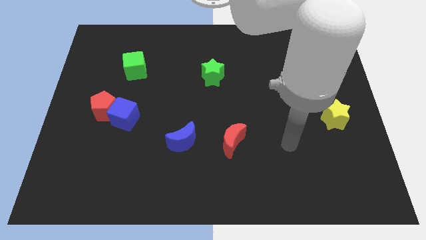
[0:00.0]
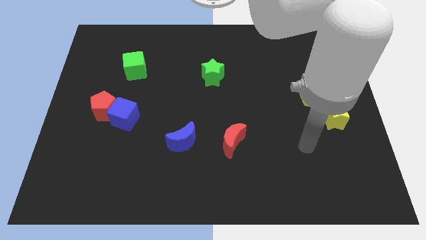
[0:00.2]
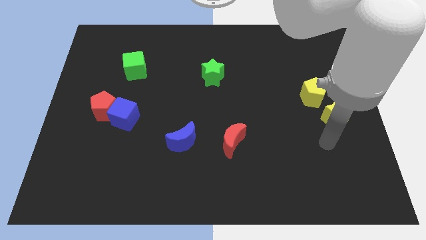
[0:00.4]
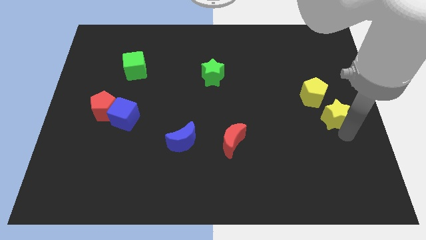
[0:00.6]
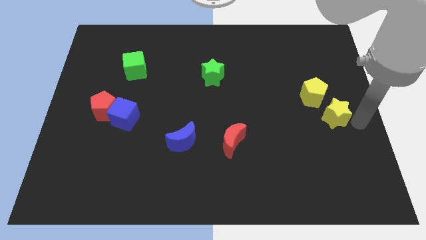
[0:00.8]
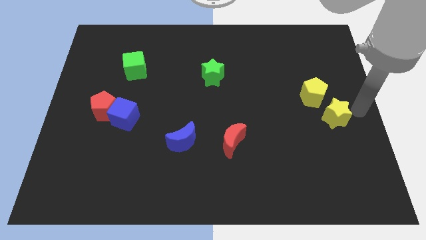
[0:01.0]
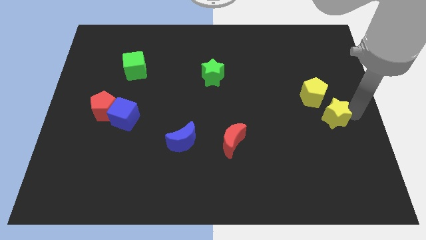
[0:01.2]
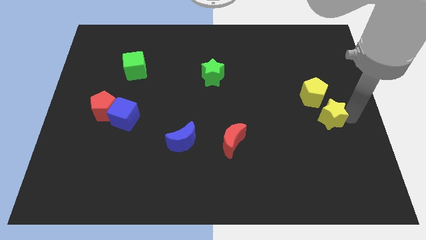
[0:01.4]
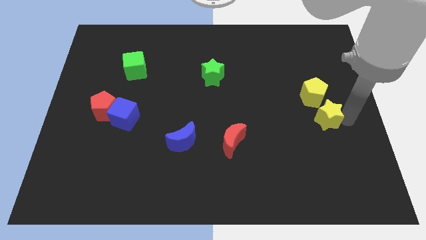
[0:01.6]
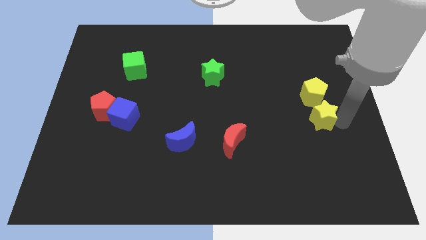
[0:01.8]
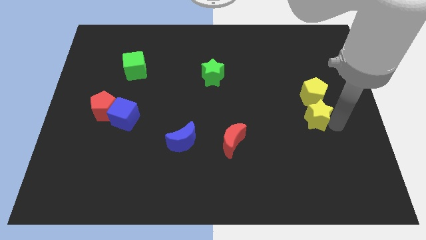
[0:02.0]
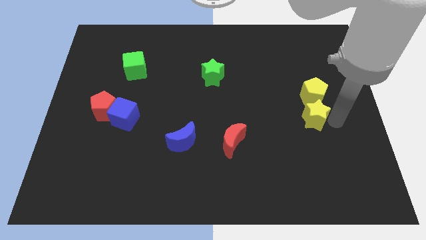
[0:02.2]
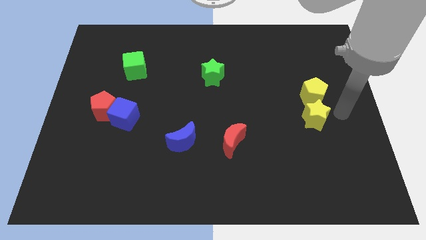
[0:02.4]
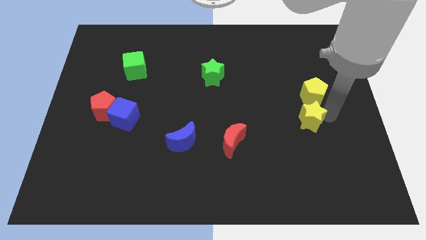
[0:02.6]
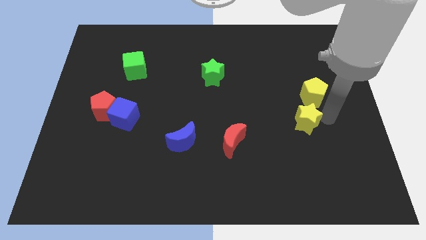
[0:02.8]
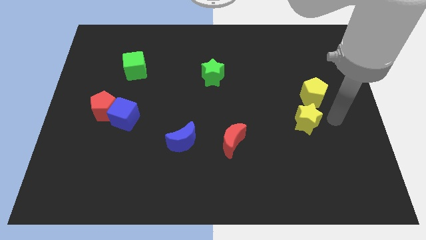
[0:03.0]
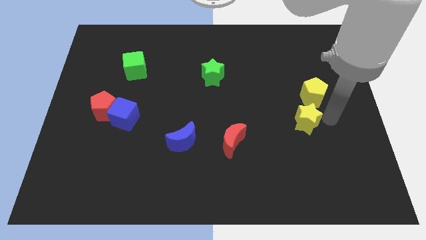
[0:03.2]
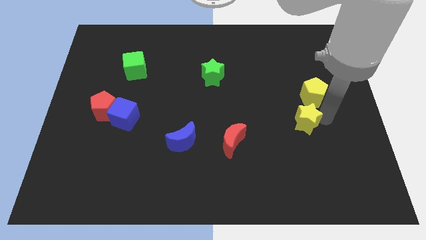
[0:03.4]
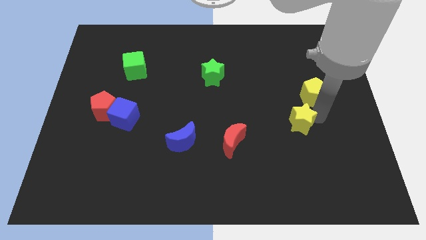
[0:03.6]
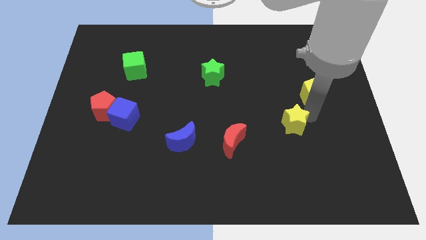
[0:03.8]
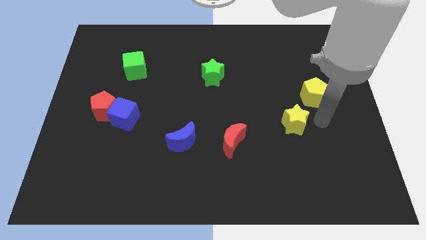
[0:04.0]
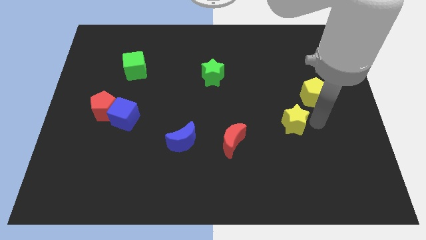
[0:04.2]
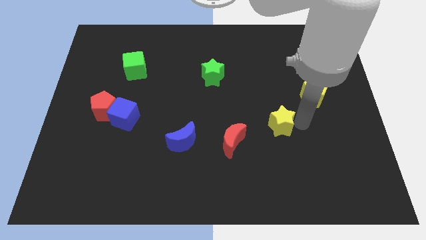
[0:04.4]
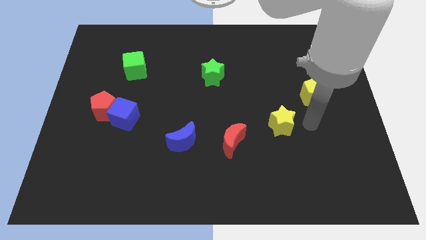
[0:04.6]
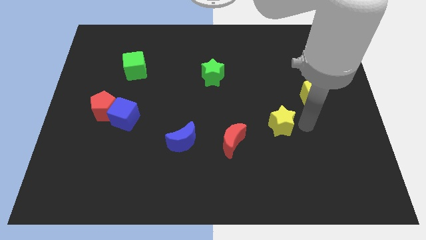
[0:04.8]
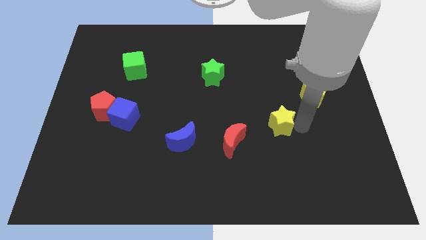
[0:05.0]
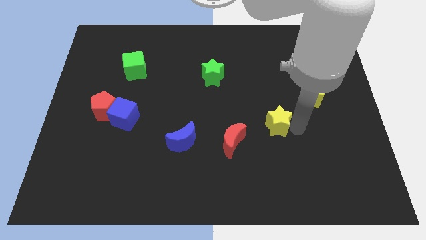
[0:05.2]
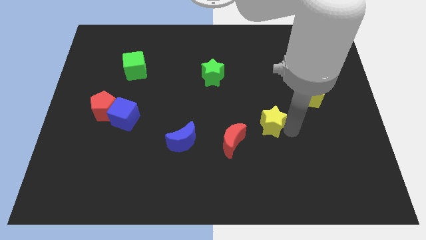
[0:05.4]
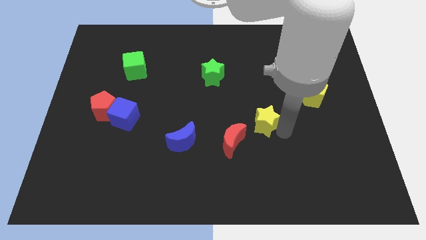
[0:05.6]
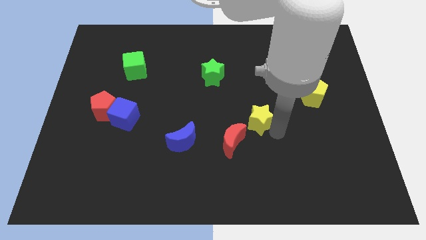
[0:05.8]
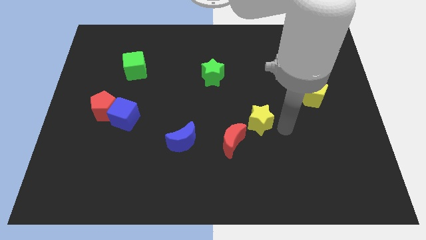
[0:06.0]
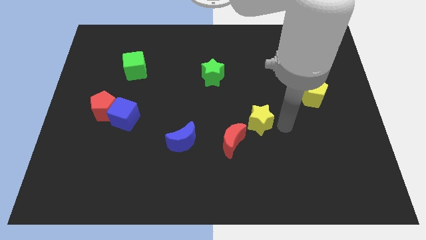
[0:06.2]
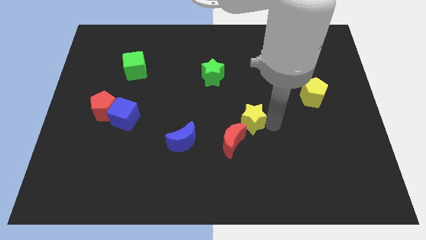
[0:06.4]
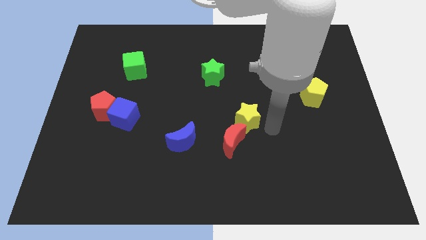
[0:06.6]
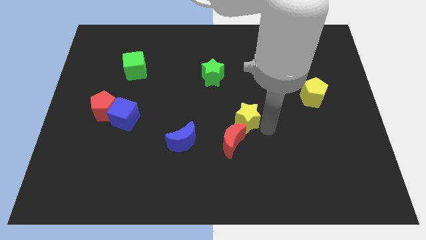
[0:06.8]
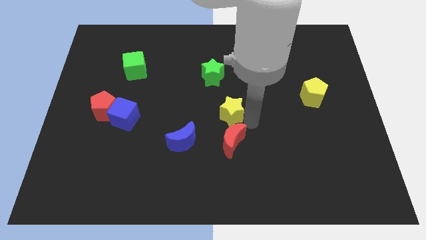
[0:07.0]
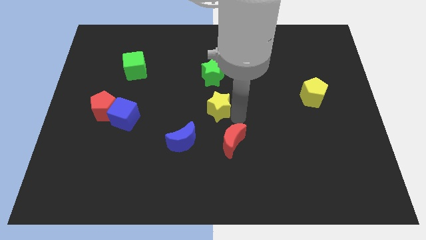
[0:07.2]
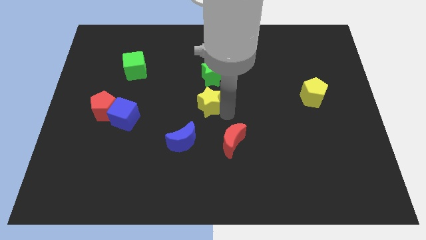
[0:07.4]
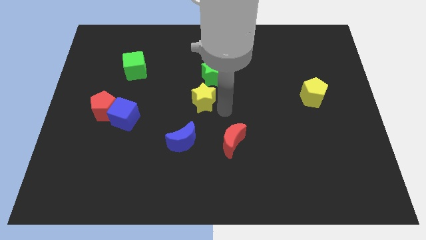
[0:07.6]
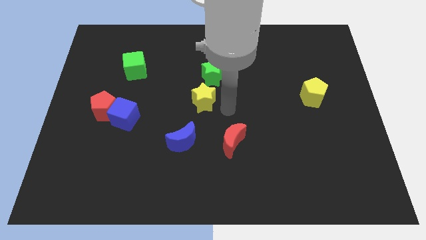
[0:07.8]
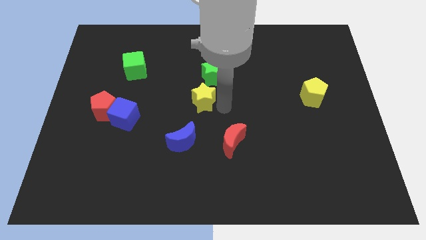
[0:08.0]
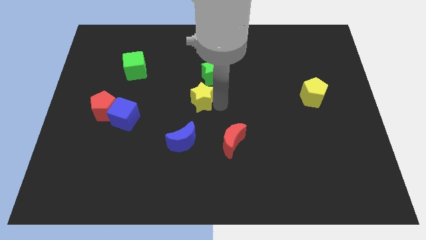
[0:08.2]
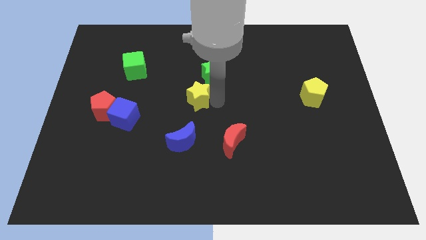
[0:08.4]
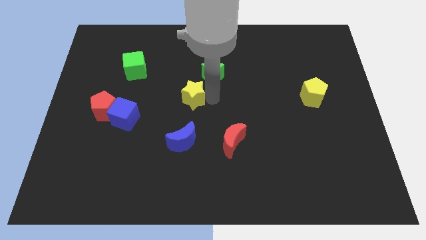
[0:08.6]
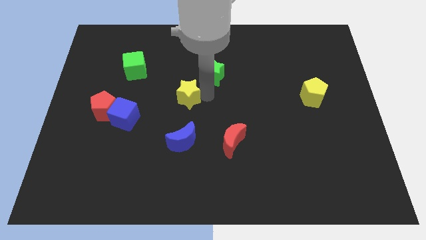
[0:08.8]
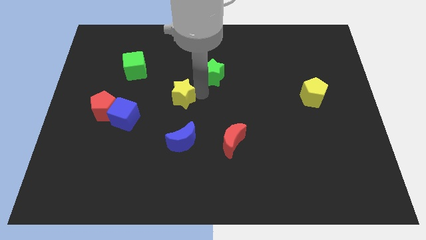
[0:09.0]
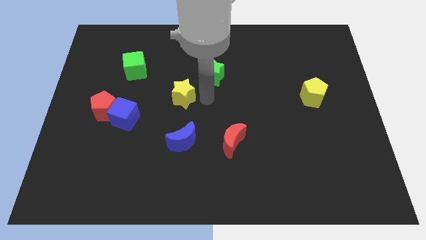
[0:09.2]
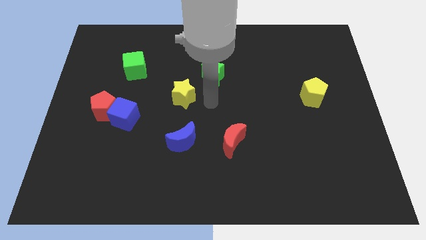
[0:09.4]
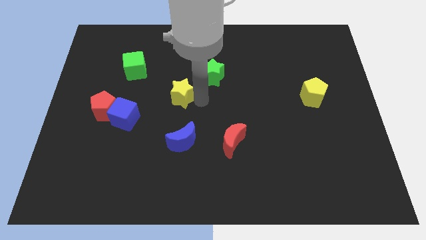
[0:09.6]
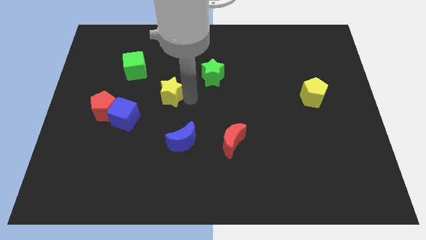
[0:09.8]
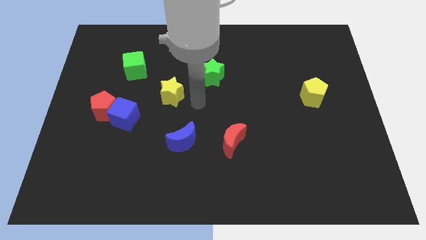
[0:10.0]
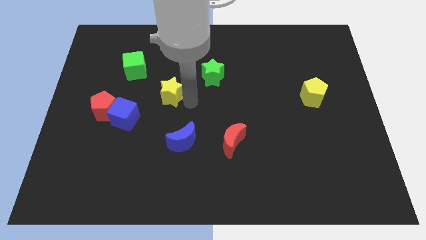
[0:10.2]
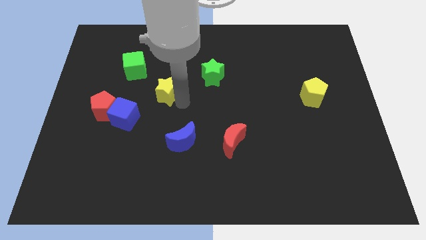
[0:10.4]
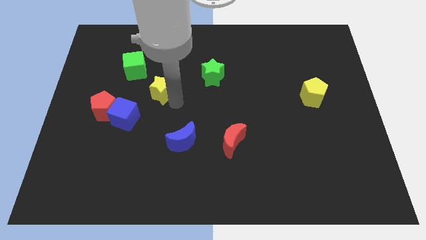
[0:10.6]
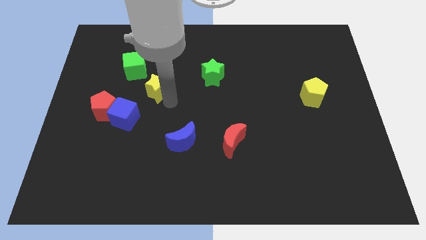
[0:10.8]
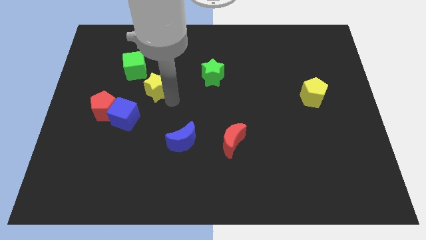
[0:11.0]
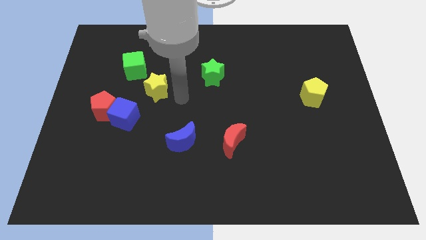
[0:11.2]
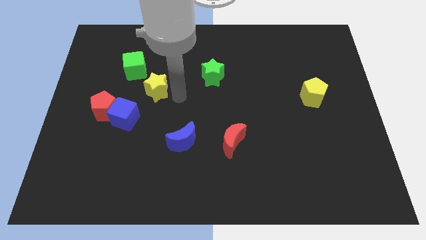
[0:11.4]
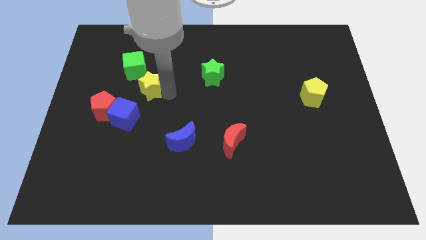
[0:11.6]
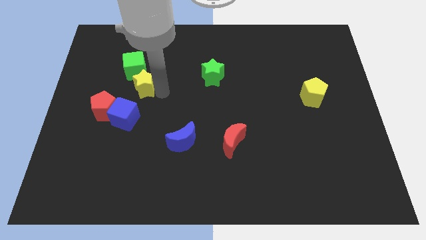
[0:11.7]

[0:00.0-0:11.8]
move the yellow star above the blue cube

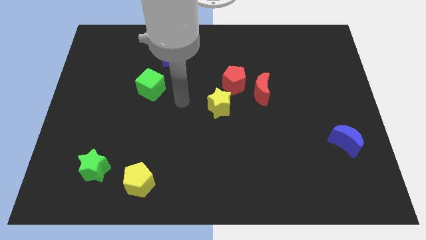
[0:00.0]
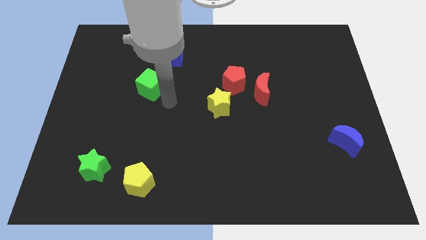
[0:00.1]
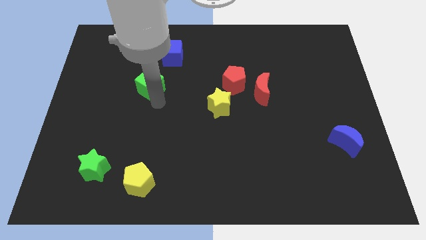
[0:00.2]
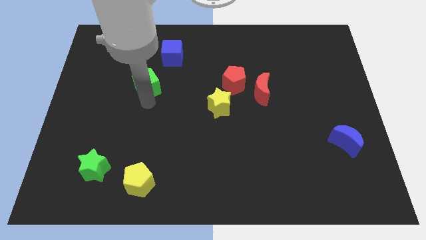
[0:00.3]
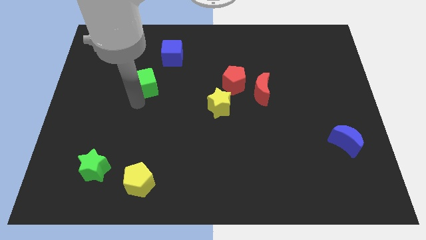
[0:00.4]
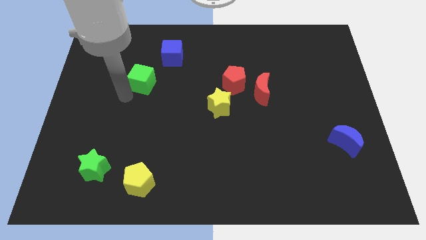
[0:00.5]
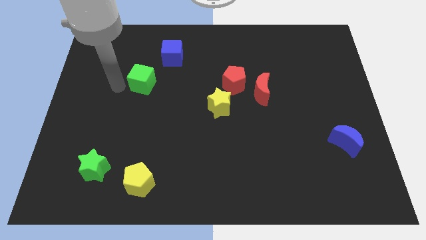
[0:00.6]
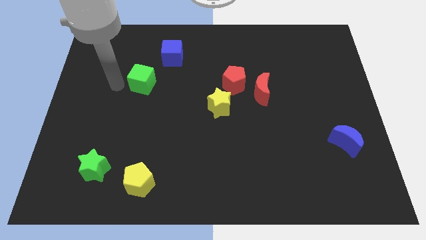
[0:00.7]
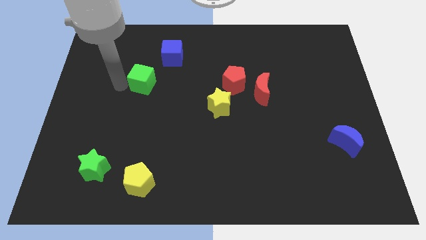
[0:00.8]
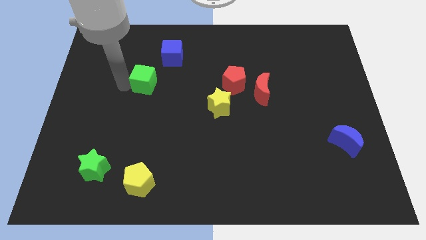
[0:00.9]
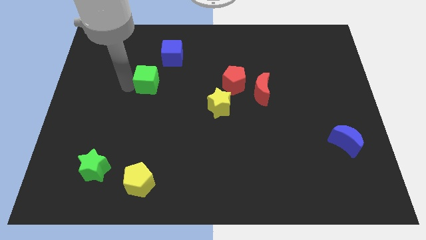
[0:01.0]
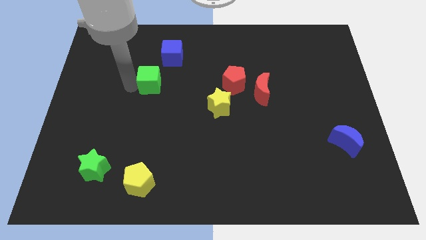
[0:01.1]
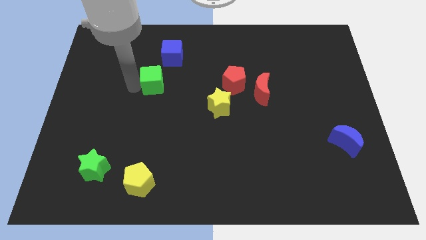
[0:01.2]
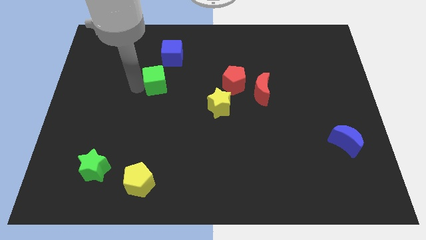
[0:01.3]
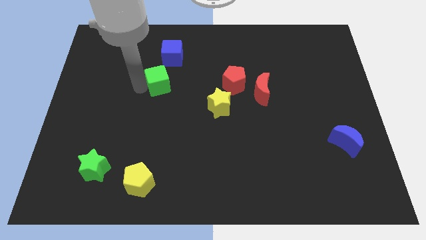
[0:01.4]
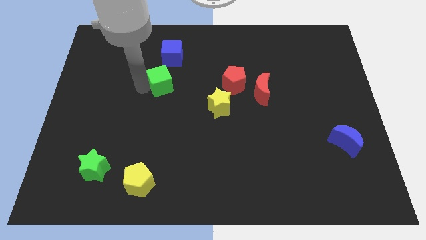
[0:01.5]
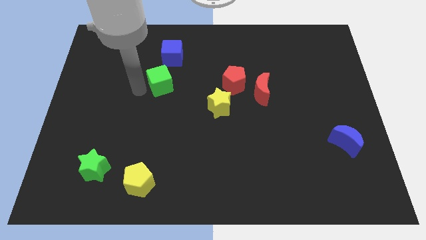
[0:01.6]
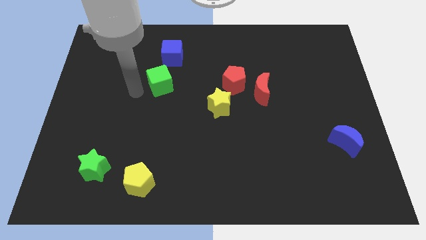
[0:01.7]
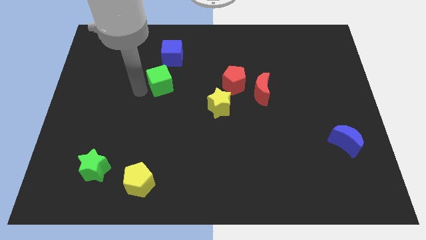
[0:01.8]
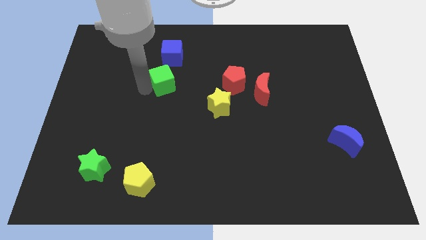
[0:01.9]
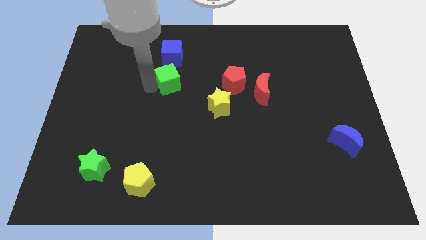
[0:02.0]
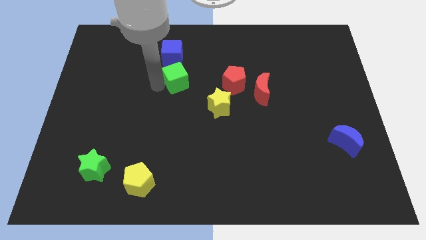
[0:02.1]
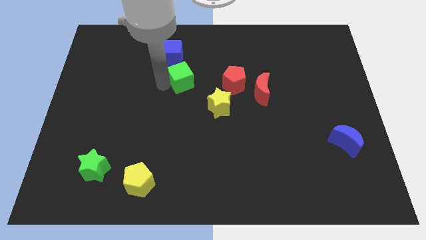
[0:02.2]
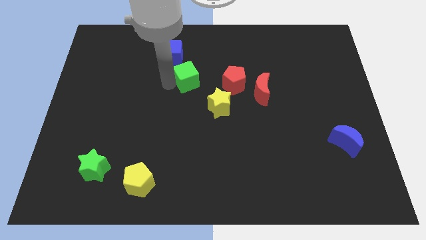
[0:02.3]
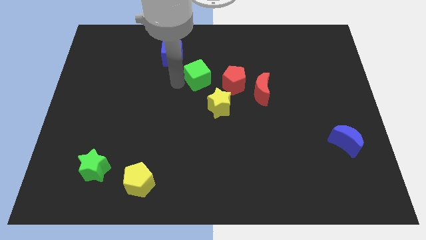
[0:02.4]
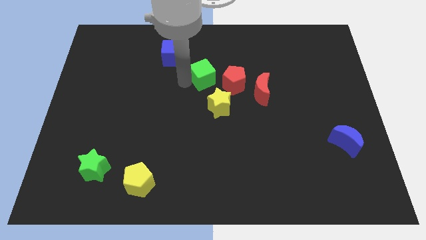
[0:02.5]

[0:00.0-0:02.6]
move the green cube to the top left of the red pentagon
